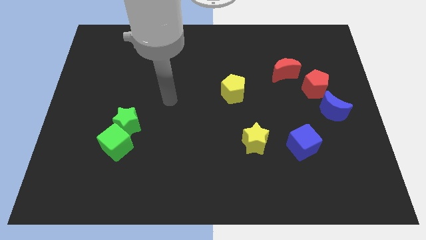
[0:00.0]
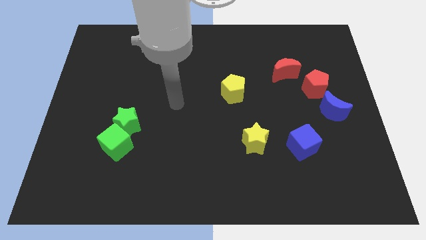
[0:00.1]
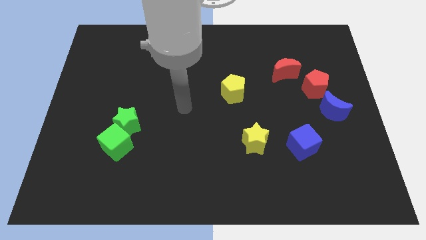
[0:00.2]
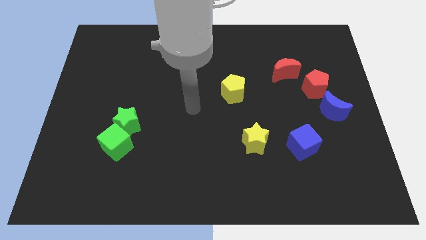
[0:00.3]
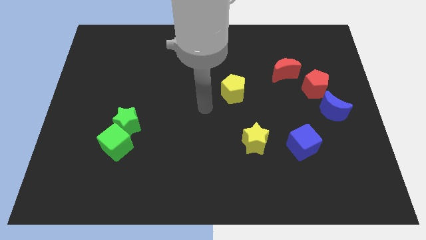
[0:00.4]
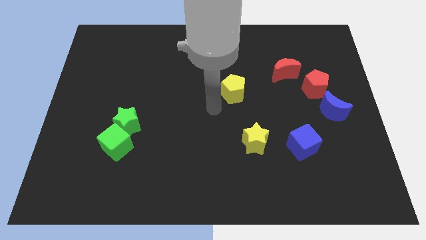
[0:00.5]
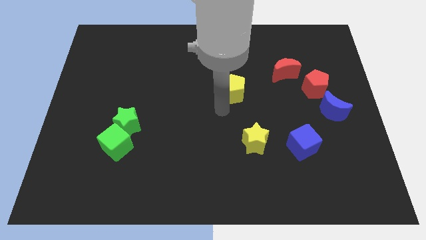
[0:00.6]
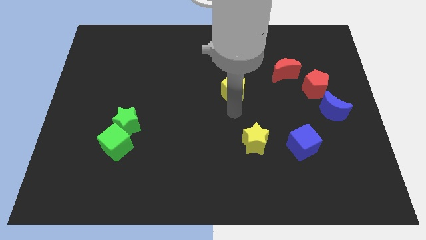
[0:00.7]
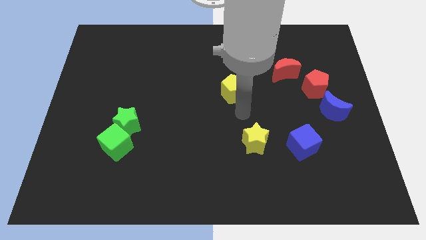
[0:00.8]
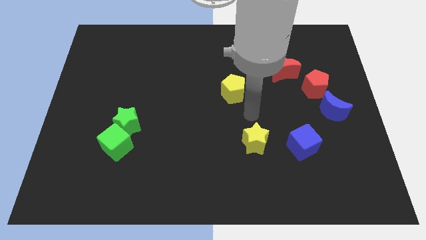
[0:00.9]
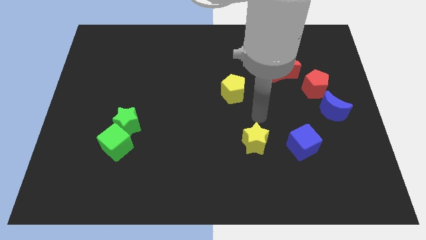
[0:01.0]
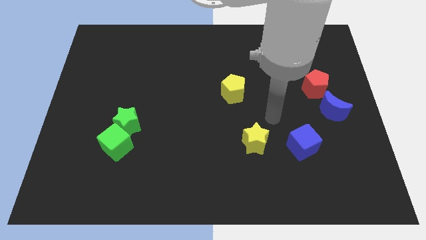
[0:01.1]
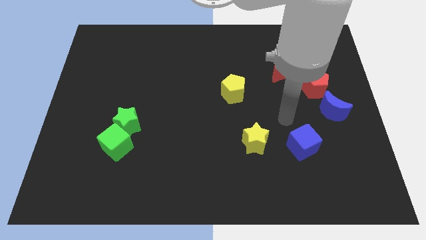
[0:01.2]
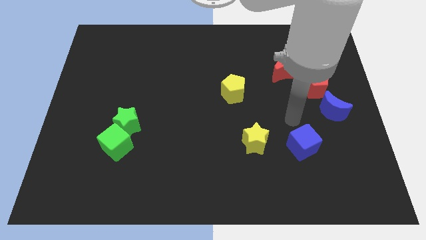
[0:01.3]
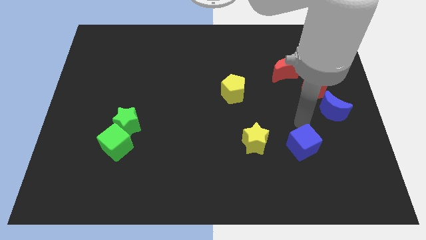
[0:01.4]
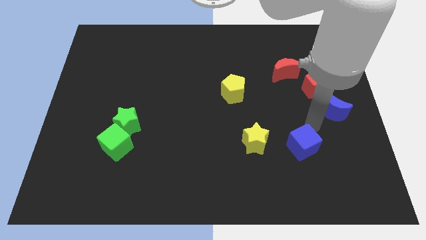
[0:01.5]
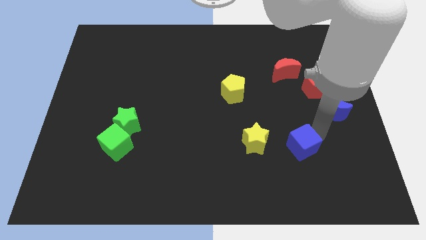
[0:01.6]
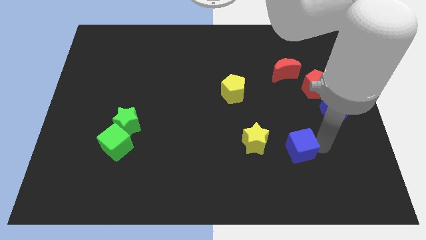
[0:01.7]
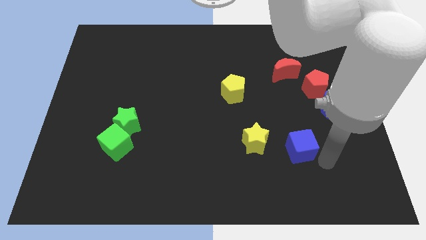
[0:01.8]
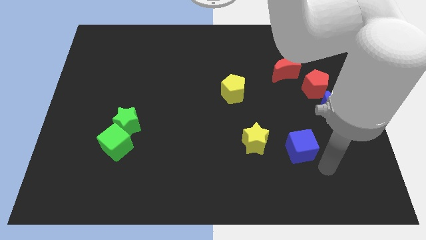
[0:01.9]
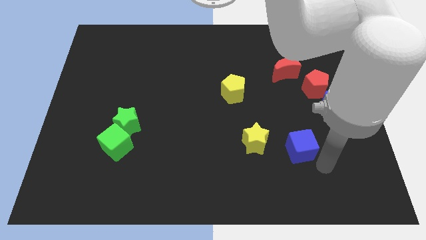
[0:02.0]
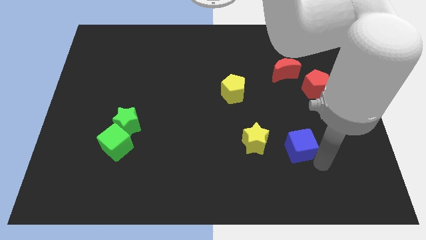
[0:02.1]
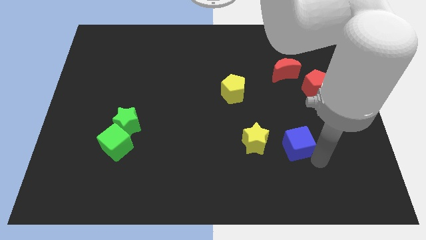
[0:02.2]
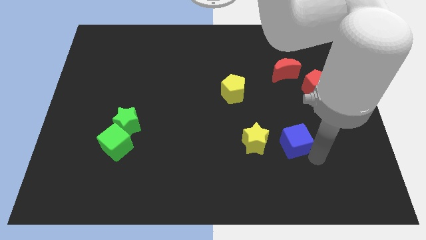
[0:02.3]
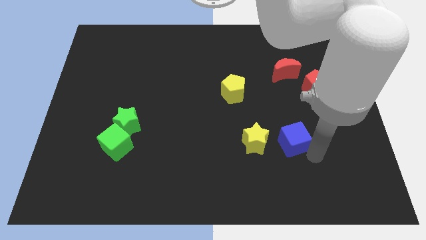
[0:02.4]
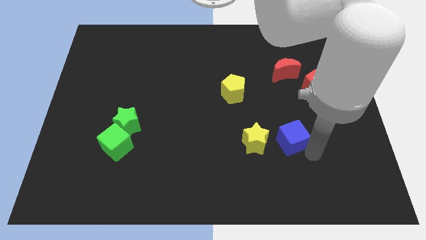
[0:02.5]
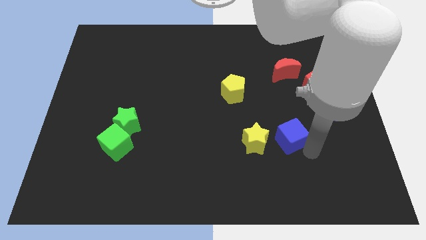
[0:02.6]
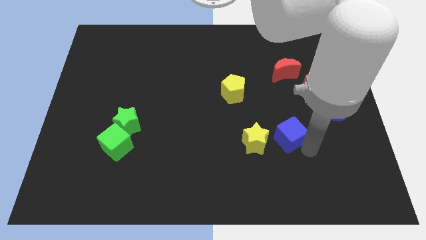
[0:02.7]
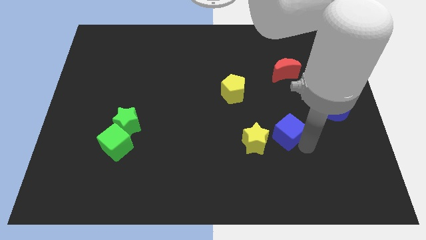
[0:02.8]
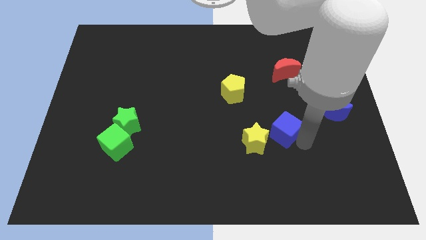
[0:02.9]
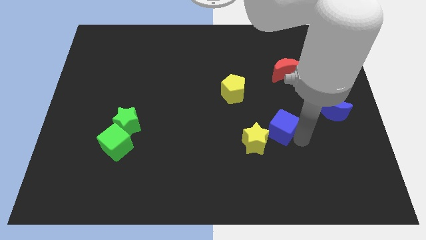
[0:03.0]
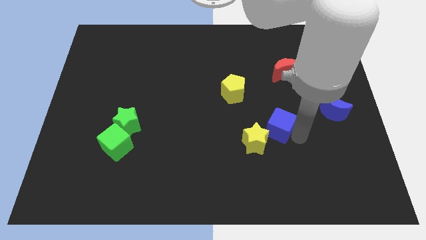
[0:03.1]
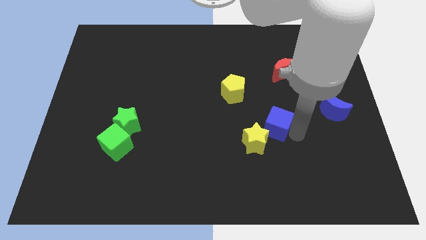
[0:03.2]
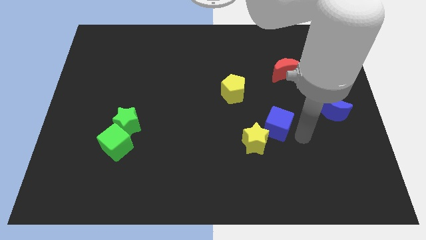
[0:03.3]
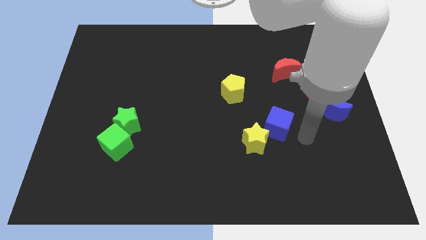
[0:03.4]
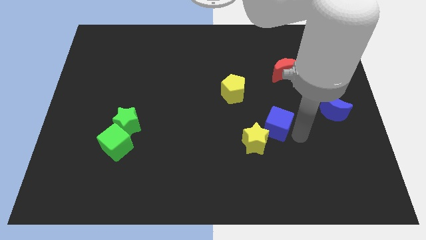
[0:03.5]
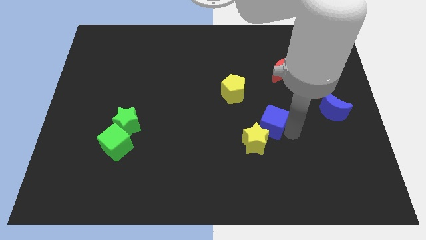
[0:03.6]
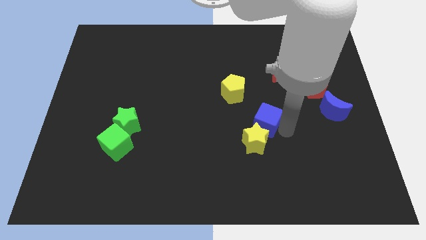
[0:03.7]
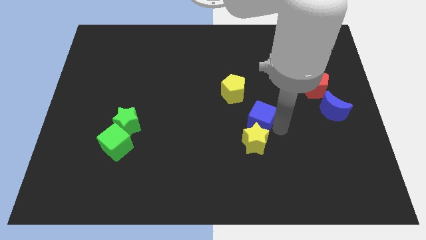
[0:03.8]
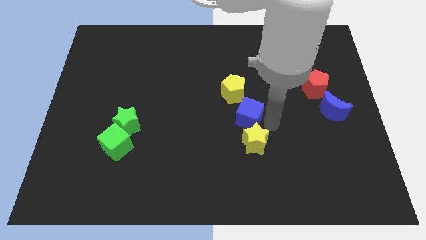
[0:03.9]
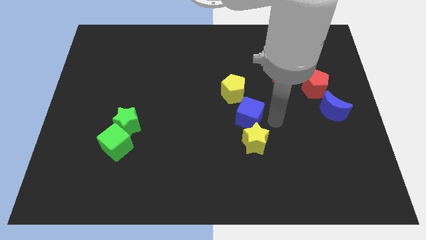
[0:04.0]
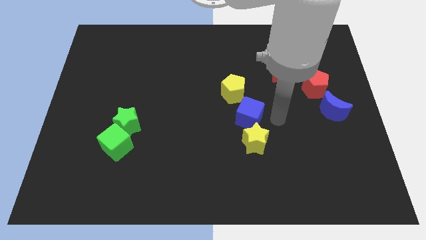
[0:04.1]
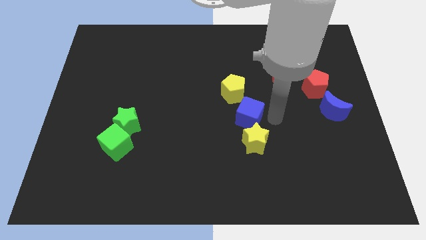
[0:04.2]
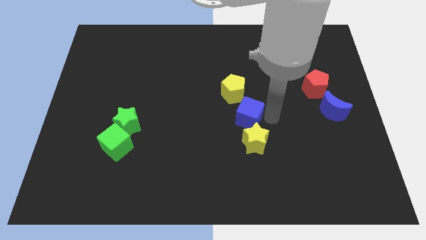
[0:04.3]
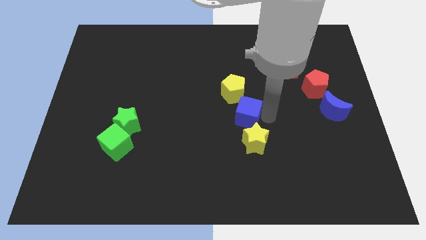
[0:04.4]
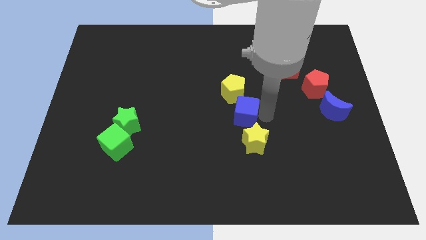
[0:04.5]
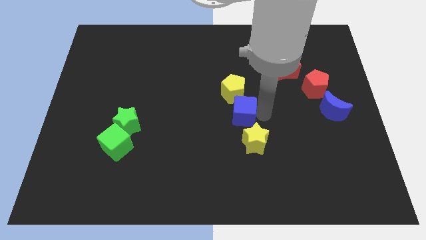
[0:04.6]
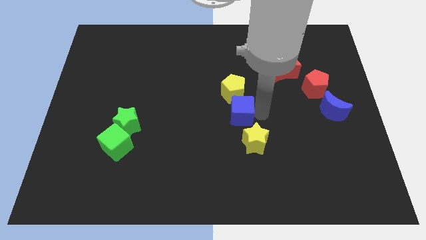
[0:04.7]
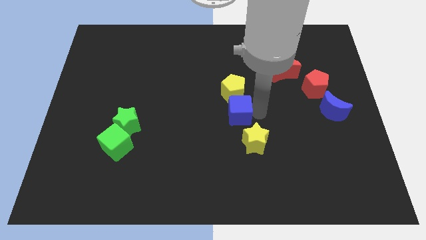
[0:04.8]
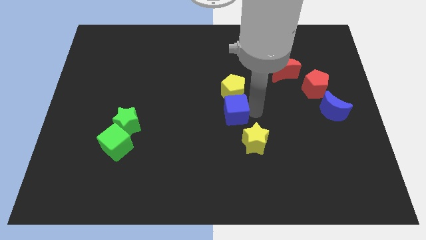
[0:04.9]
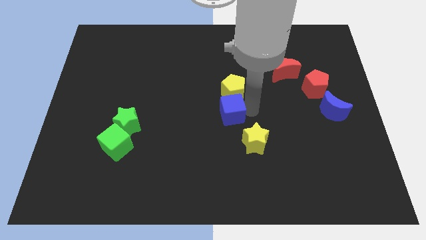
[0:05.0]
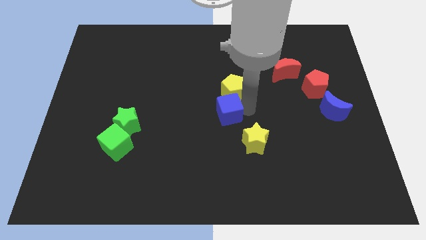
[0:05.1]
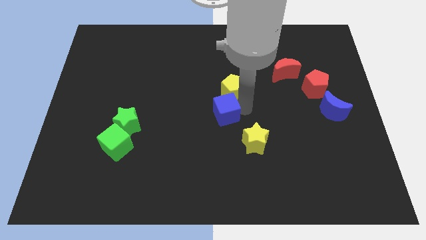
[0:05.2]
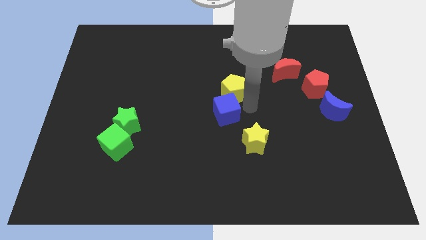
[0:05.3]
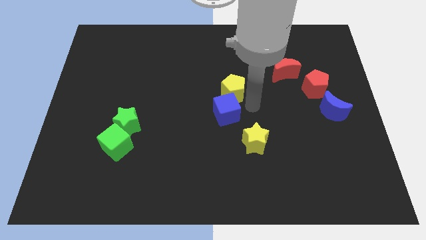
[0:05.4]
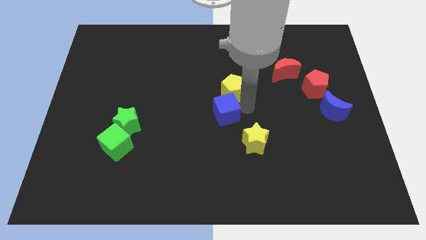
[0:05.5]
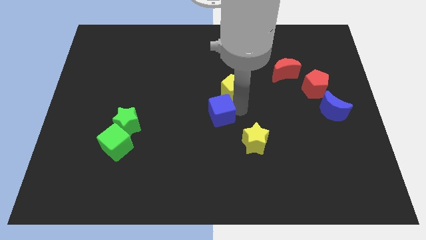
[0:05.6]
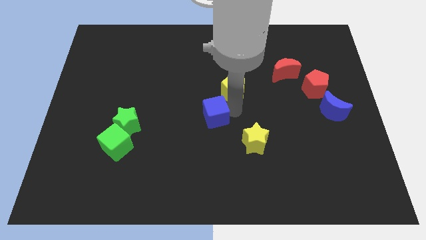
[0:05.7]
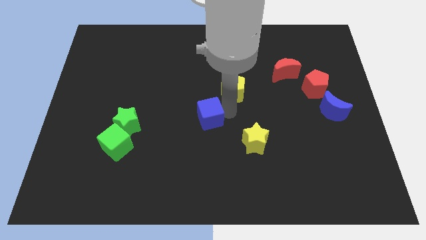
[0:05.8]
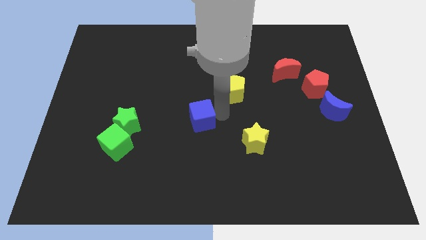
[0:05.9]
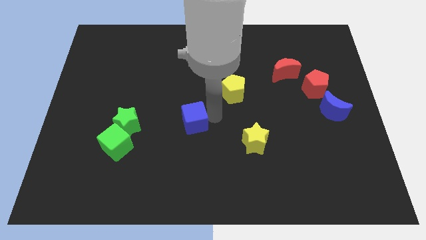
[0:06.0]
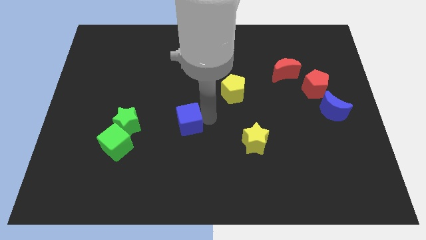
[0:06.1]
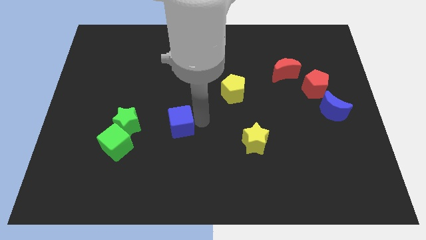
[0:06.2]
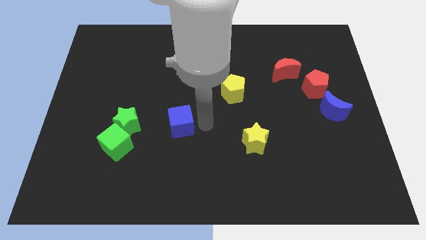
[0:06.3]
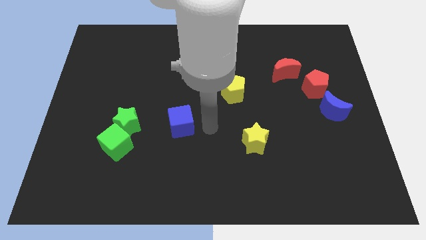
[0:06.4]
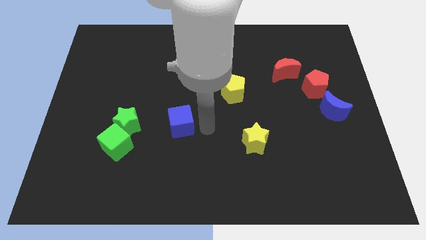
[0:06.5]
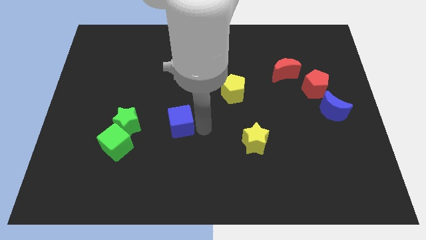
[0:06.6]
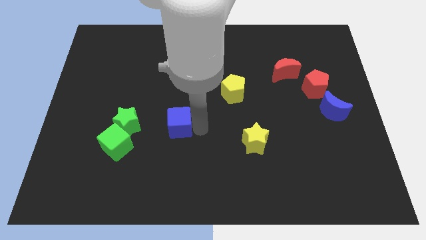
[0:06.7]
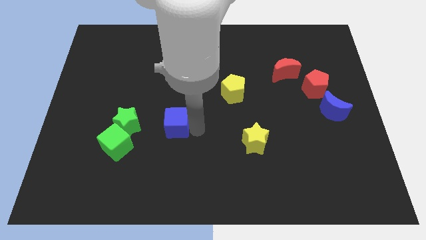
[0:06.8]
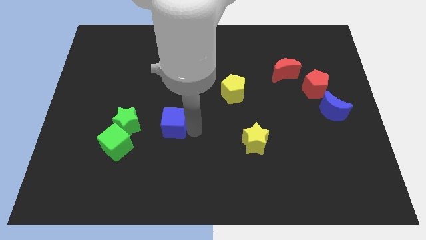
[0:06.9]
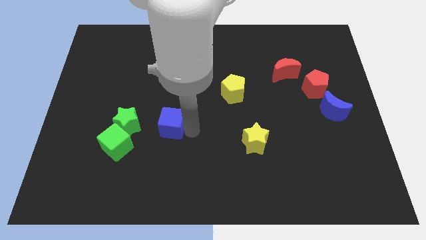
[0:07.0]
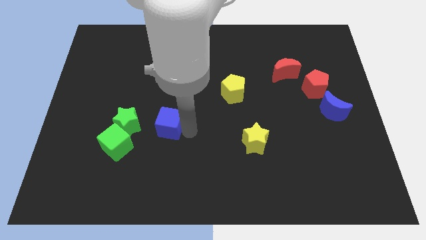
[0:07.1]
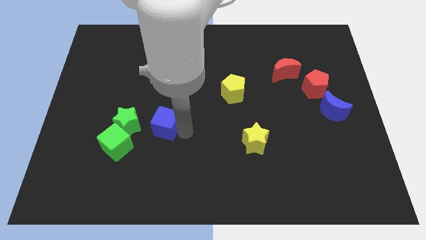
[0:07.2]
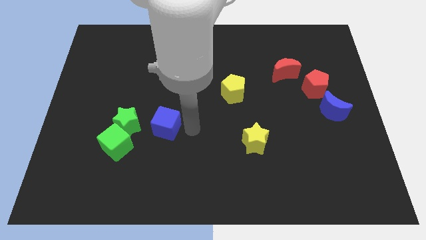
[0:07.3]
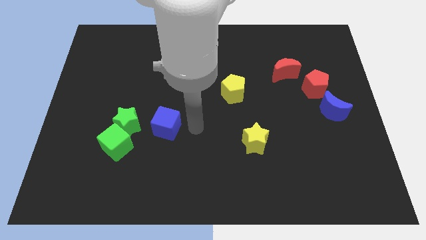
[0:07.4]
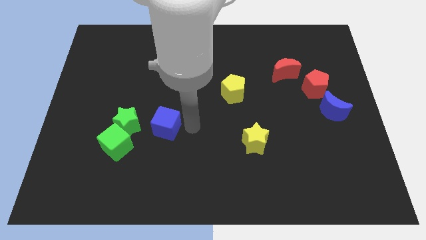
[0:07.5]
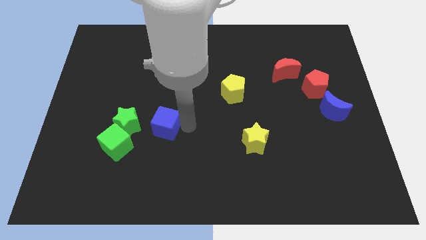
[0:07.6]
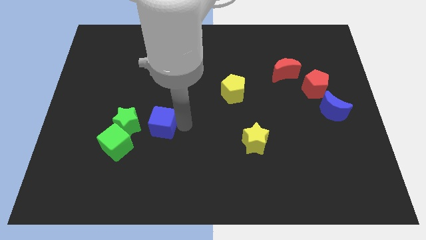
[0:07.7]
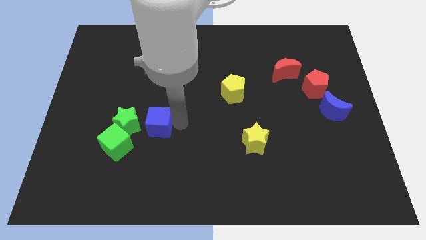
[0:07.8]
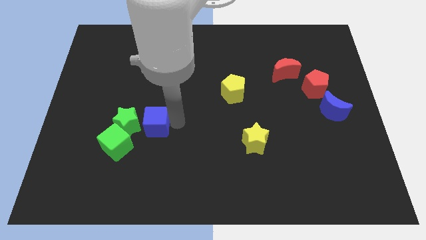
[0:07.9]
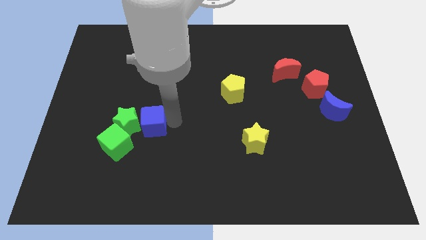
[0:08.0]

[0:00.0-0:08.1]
move the blue cube to the green star
